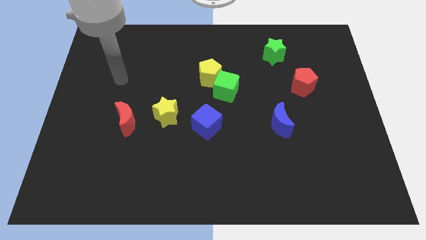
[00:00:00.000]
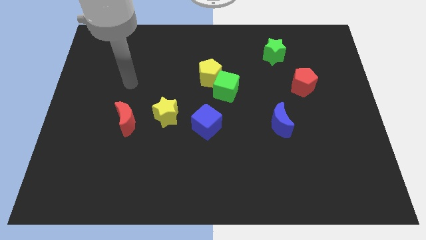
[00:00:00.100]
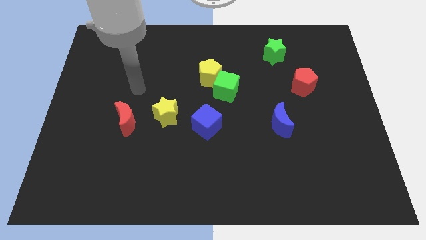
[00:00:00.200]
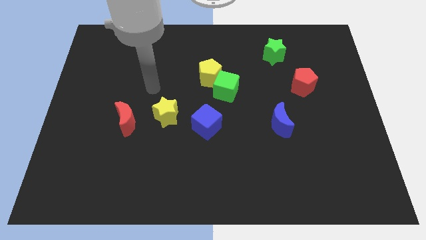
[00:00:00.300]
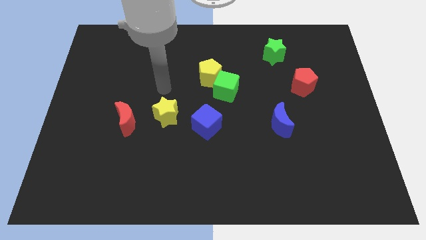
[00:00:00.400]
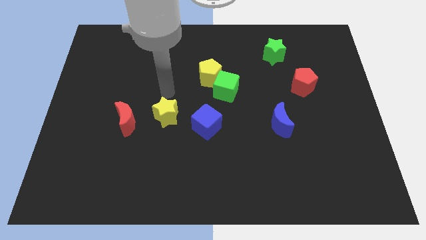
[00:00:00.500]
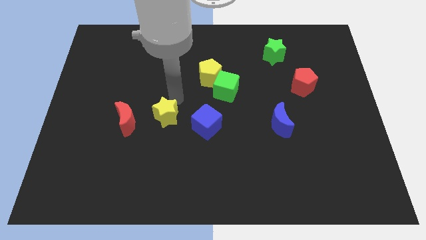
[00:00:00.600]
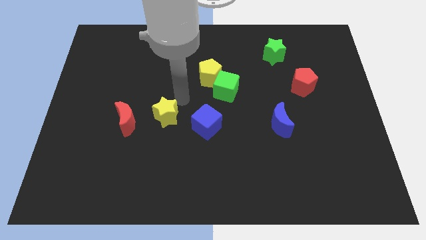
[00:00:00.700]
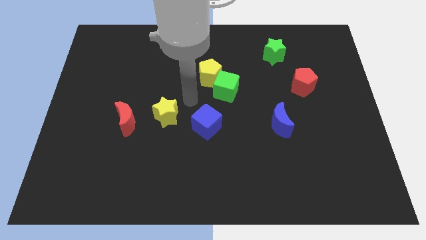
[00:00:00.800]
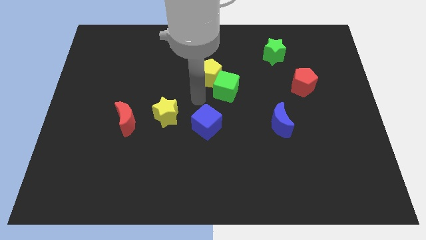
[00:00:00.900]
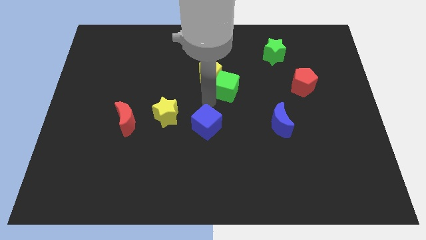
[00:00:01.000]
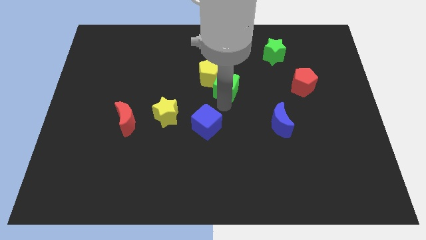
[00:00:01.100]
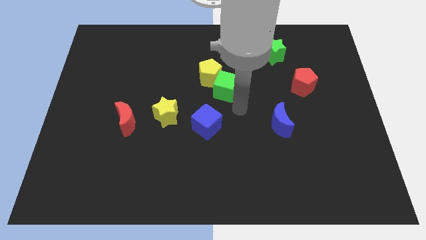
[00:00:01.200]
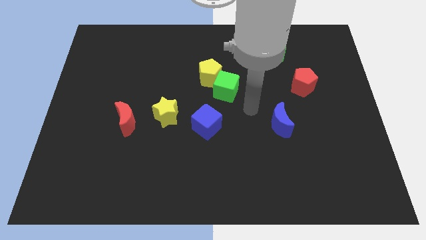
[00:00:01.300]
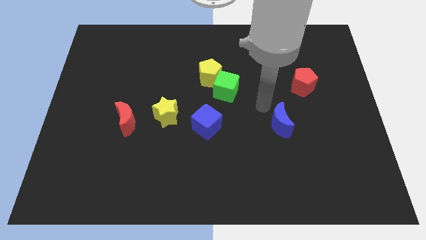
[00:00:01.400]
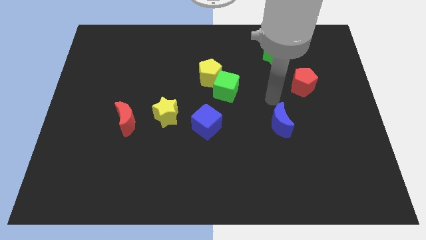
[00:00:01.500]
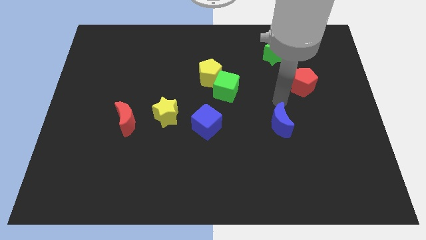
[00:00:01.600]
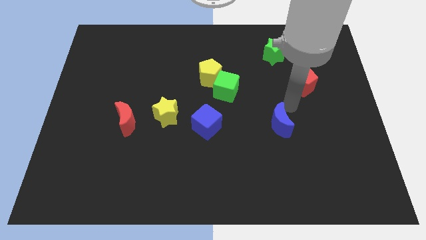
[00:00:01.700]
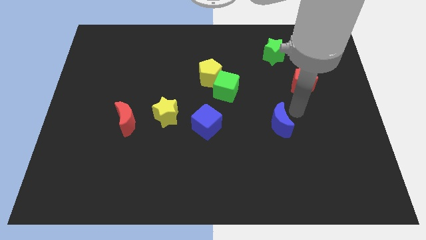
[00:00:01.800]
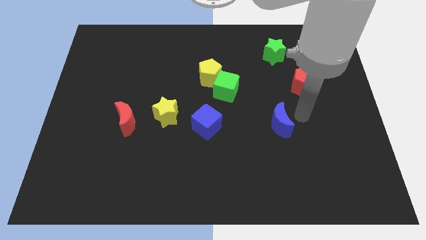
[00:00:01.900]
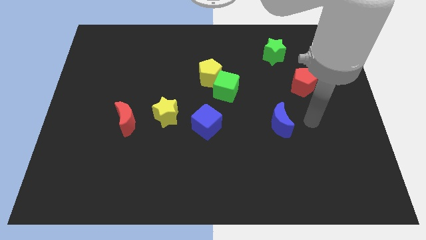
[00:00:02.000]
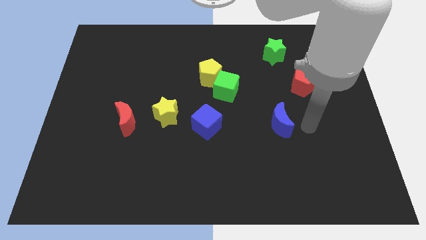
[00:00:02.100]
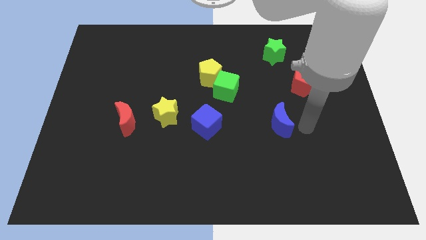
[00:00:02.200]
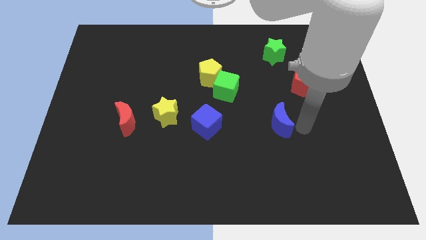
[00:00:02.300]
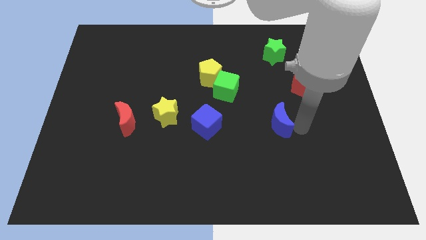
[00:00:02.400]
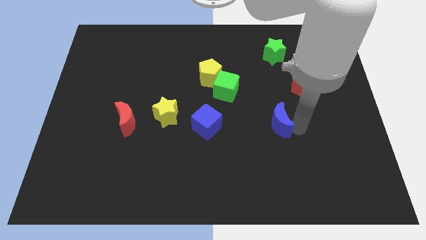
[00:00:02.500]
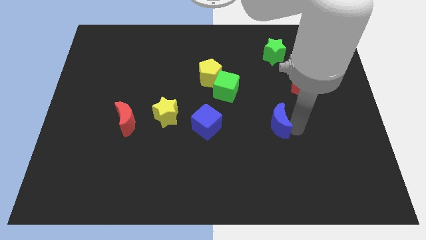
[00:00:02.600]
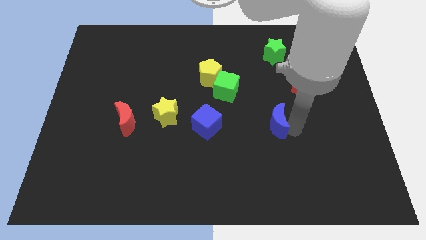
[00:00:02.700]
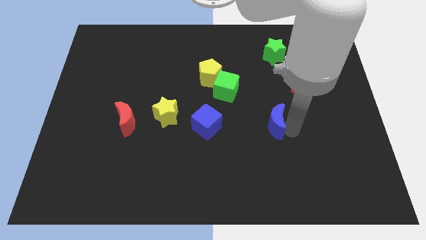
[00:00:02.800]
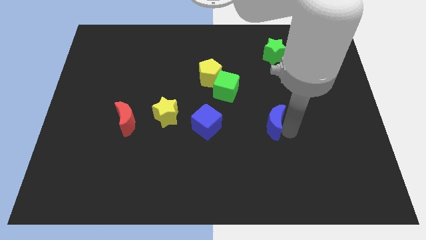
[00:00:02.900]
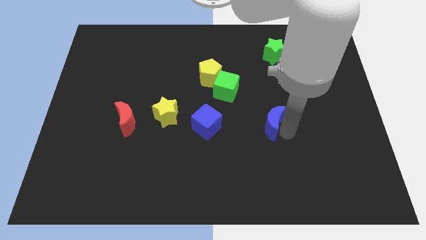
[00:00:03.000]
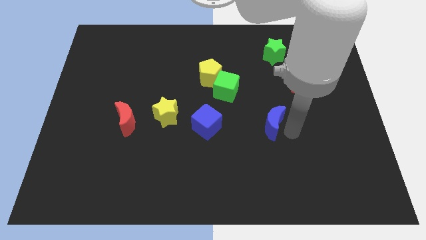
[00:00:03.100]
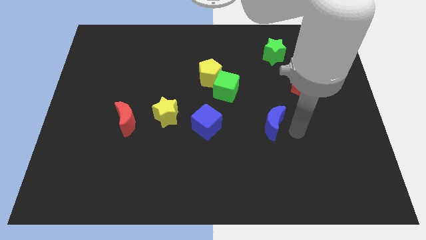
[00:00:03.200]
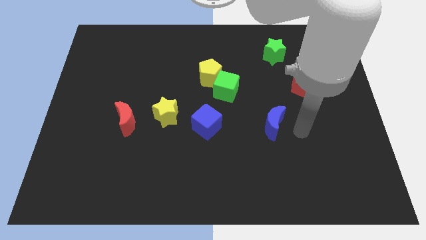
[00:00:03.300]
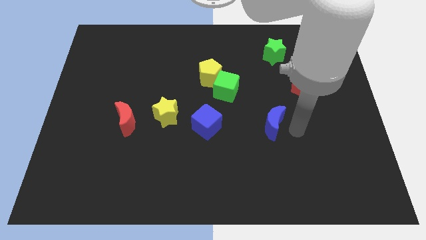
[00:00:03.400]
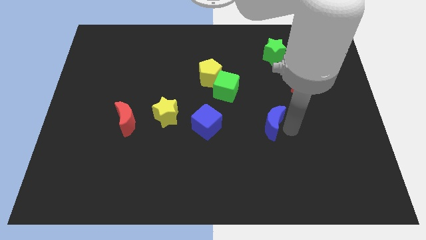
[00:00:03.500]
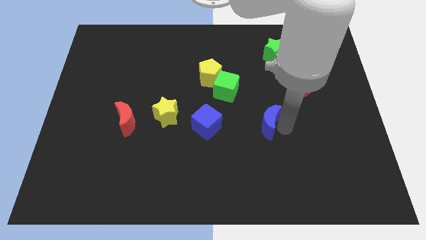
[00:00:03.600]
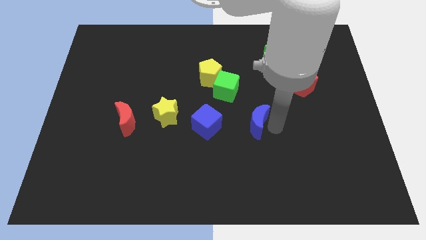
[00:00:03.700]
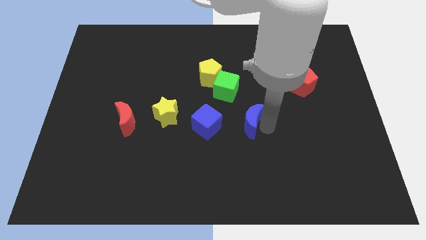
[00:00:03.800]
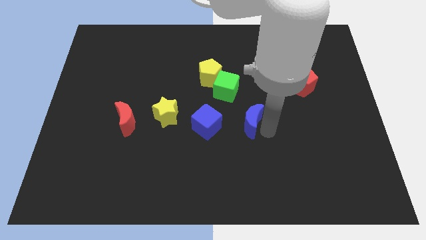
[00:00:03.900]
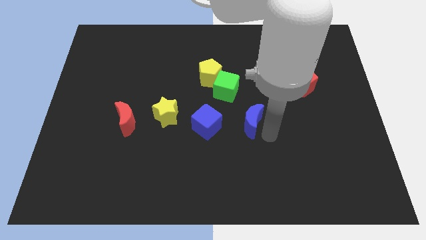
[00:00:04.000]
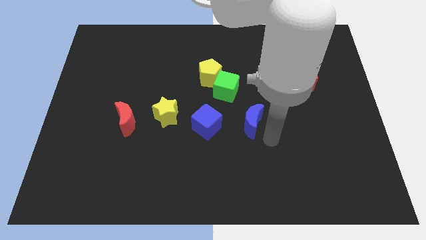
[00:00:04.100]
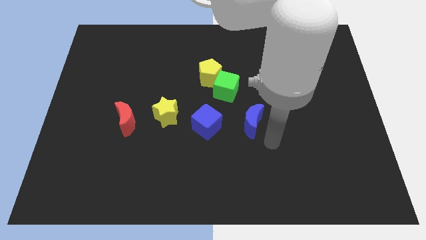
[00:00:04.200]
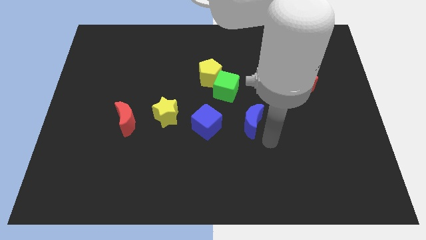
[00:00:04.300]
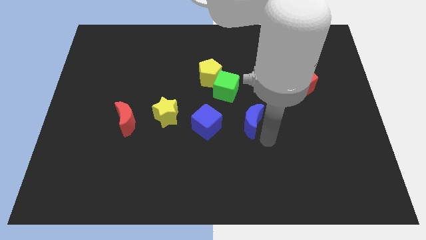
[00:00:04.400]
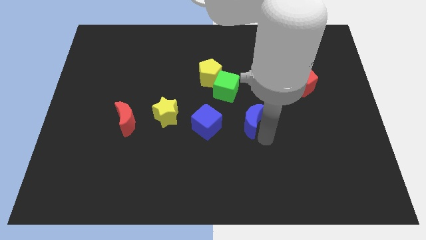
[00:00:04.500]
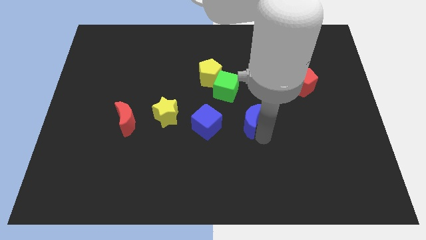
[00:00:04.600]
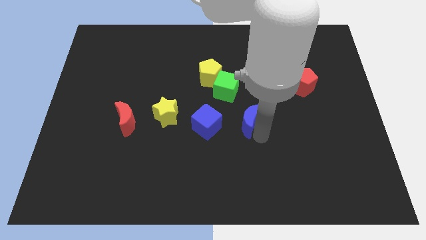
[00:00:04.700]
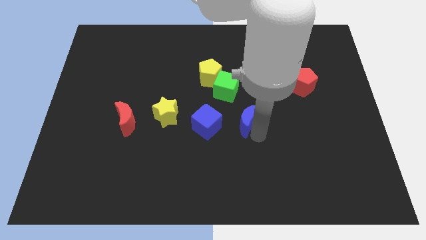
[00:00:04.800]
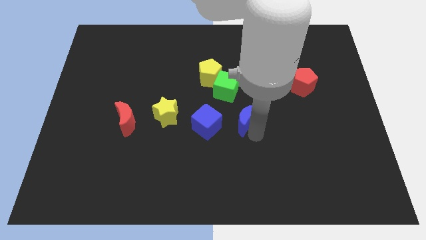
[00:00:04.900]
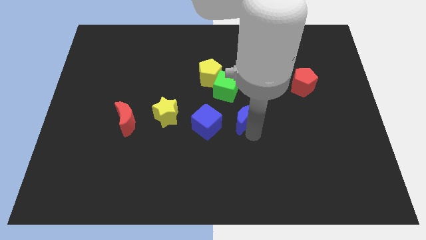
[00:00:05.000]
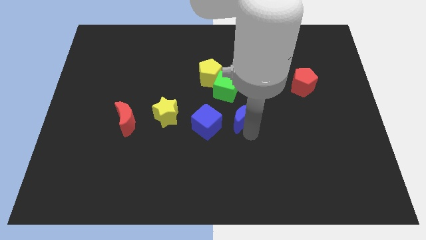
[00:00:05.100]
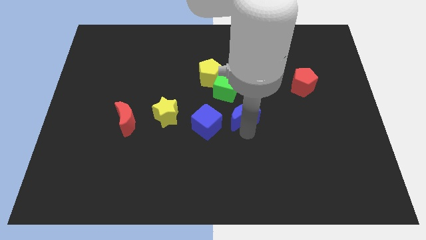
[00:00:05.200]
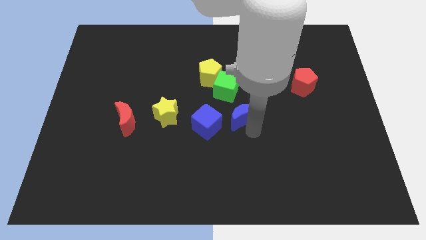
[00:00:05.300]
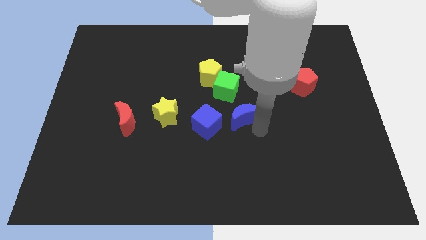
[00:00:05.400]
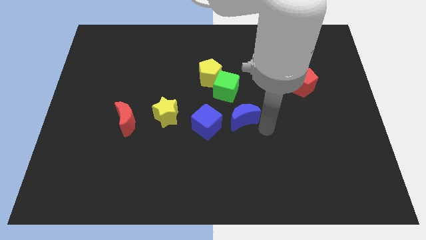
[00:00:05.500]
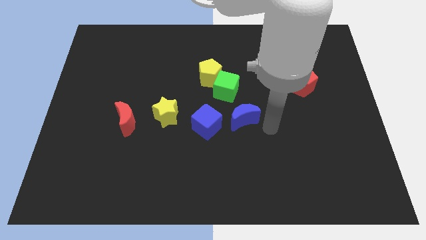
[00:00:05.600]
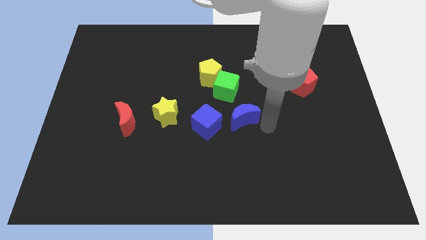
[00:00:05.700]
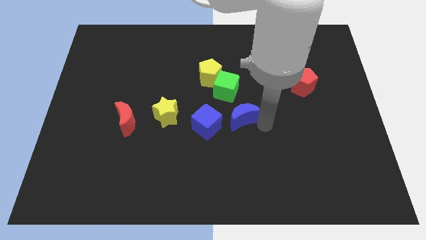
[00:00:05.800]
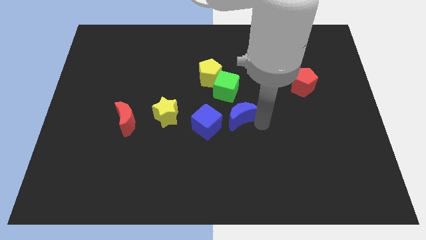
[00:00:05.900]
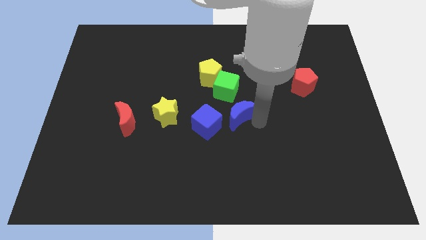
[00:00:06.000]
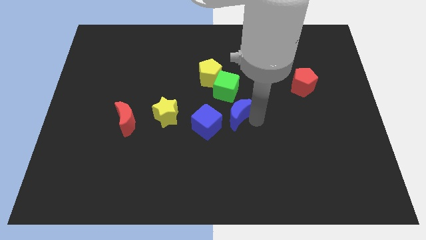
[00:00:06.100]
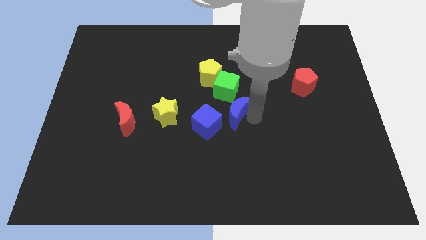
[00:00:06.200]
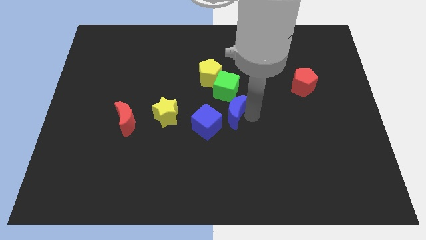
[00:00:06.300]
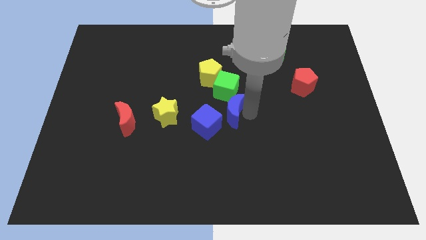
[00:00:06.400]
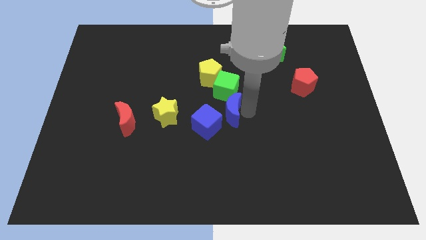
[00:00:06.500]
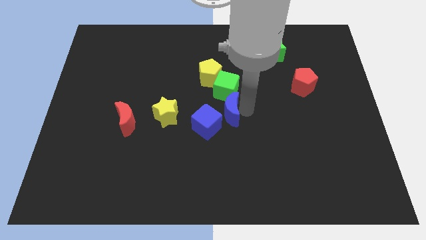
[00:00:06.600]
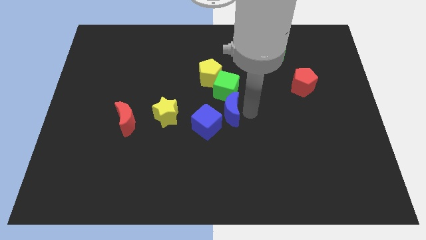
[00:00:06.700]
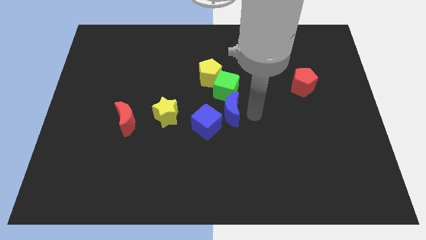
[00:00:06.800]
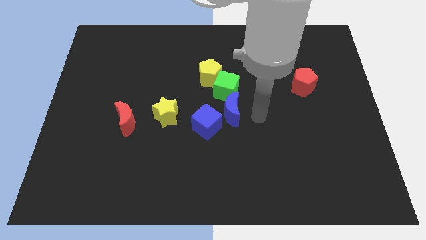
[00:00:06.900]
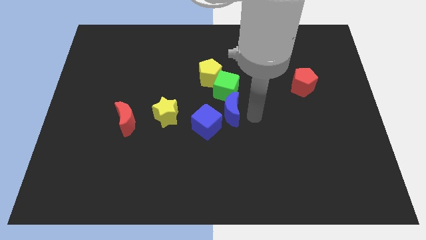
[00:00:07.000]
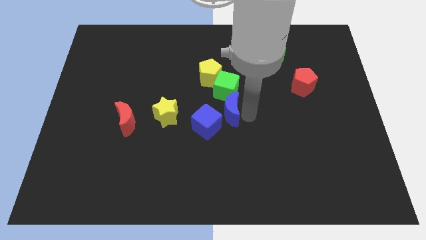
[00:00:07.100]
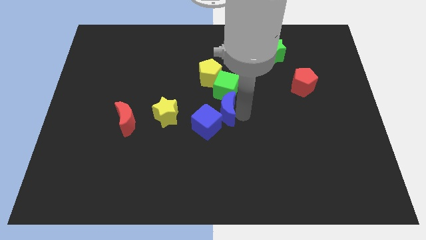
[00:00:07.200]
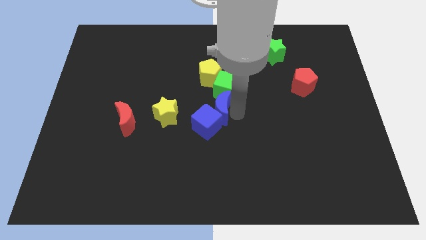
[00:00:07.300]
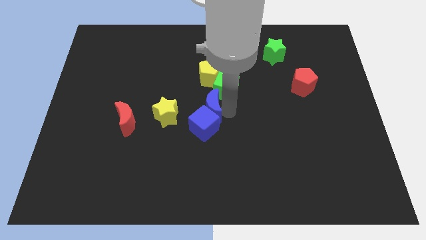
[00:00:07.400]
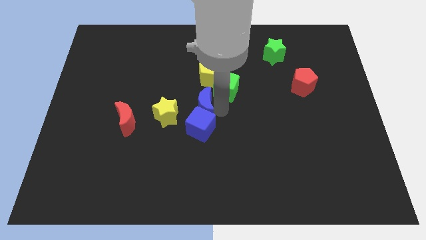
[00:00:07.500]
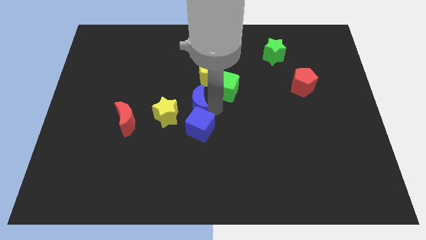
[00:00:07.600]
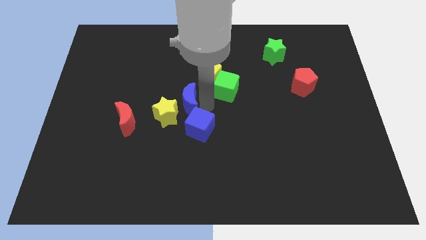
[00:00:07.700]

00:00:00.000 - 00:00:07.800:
put the blue moon to the yellow star
